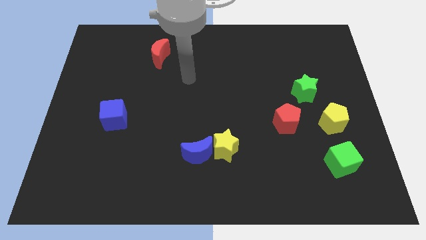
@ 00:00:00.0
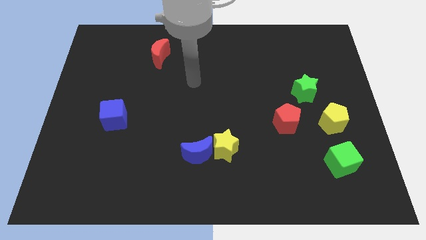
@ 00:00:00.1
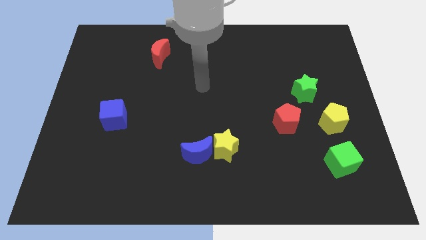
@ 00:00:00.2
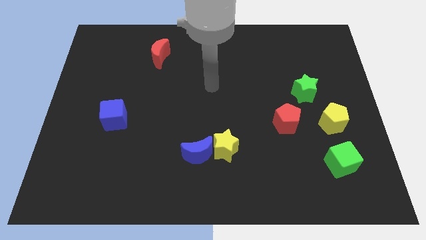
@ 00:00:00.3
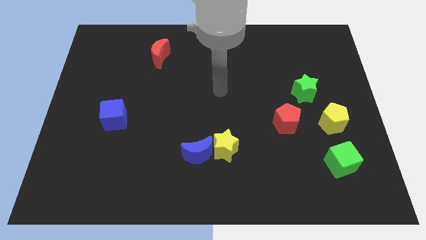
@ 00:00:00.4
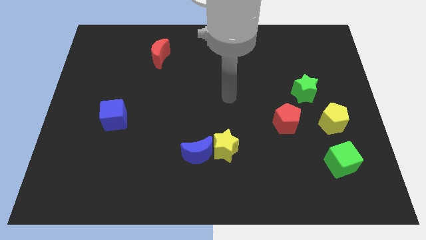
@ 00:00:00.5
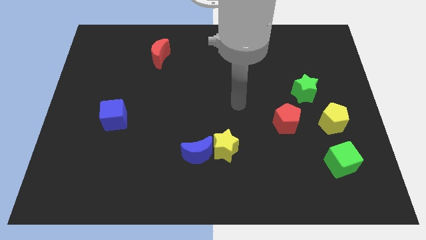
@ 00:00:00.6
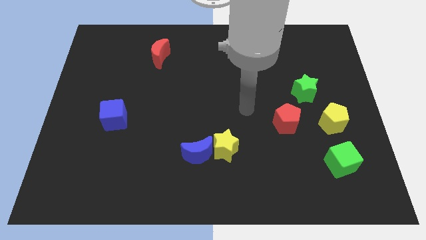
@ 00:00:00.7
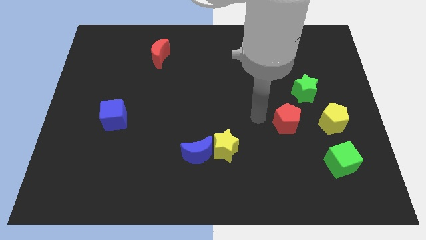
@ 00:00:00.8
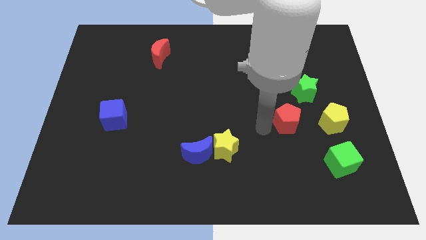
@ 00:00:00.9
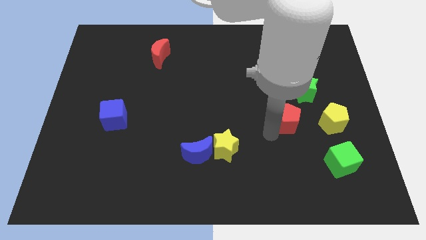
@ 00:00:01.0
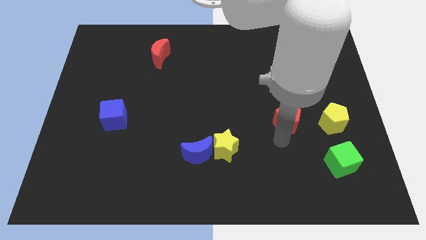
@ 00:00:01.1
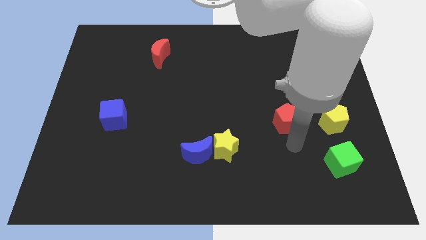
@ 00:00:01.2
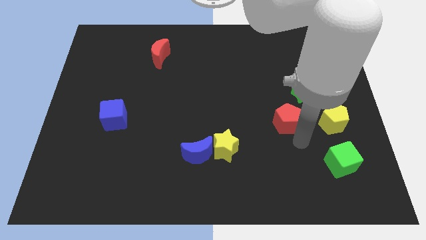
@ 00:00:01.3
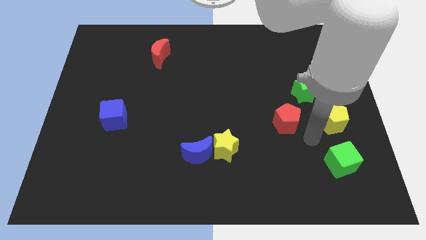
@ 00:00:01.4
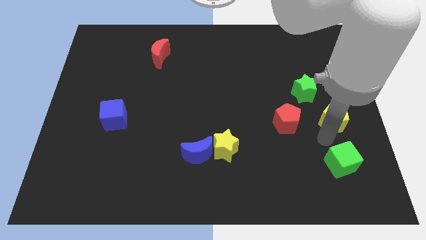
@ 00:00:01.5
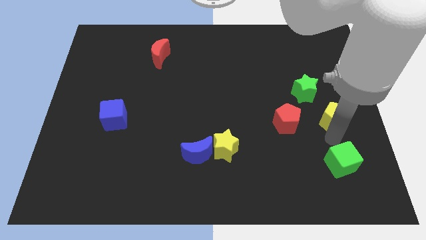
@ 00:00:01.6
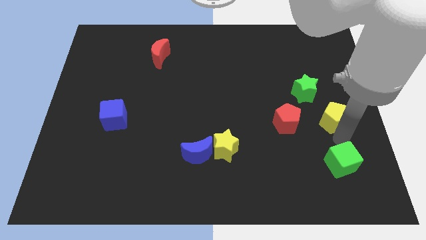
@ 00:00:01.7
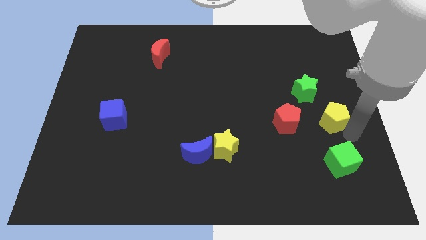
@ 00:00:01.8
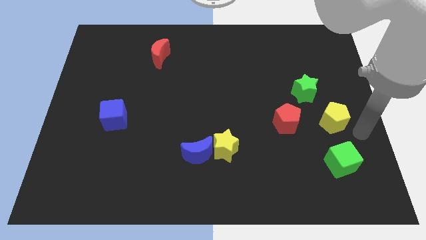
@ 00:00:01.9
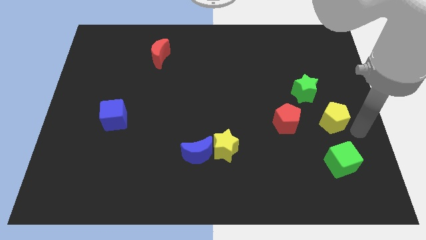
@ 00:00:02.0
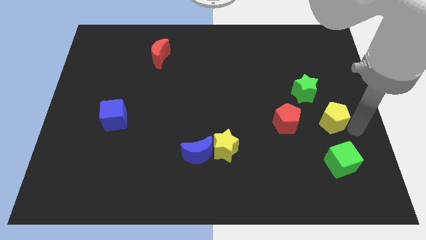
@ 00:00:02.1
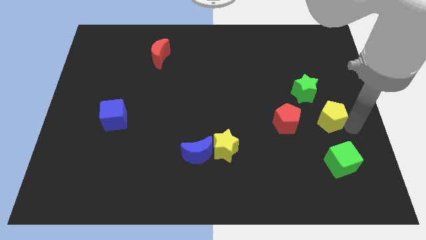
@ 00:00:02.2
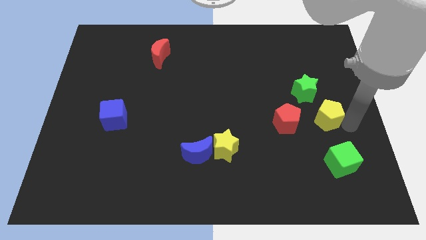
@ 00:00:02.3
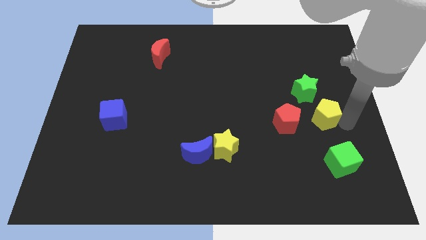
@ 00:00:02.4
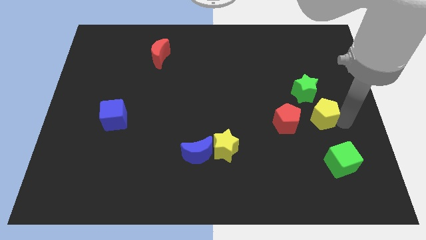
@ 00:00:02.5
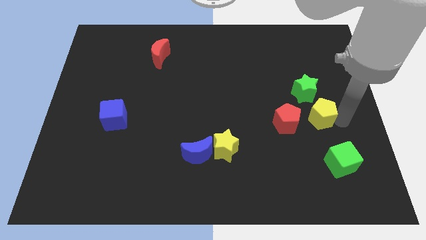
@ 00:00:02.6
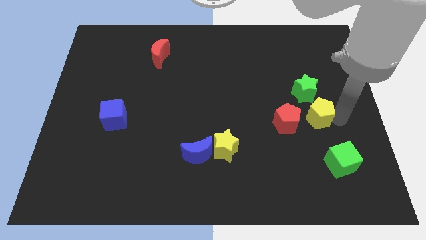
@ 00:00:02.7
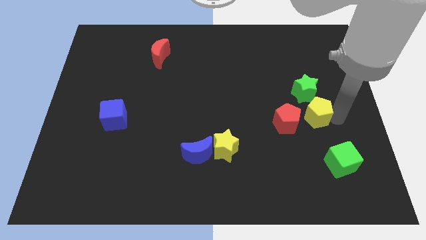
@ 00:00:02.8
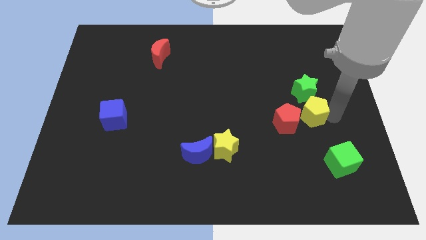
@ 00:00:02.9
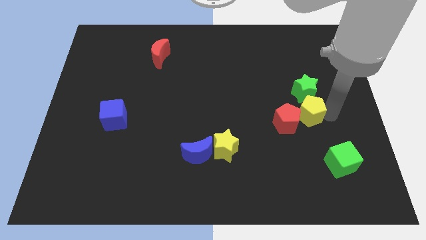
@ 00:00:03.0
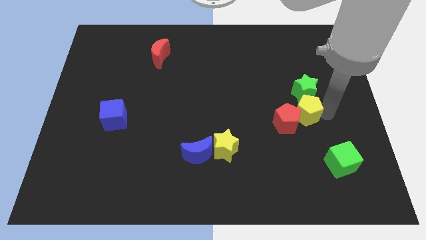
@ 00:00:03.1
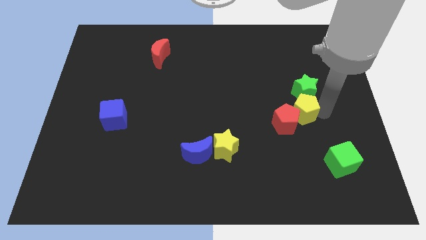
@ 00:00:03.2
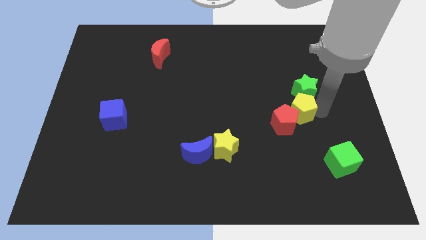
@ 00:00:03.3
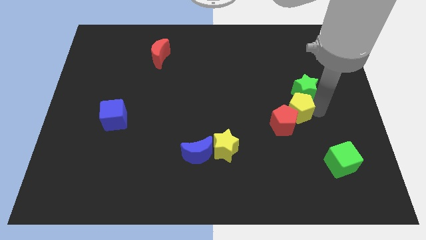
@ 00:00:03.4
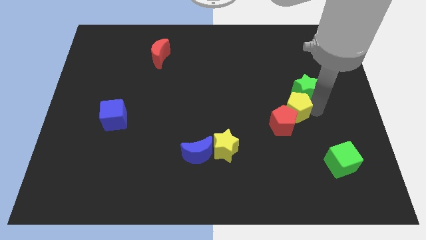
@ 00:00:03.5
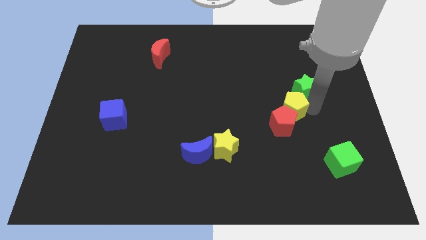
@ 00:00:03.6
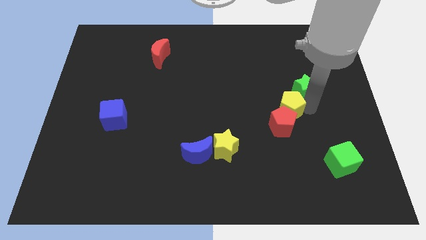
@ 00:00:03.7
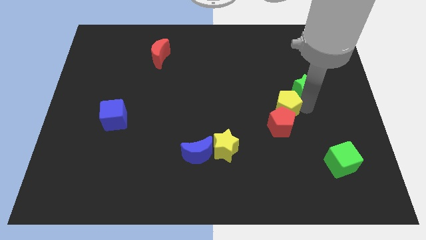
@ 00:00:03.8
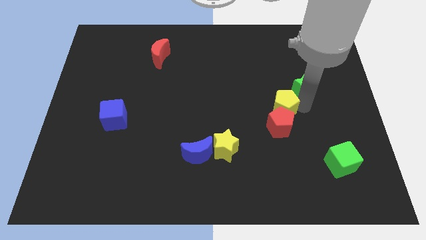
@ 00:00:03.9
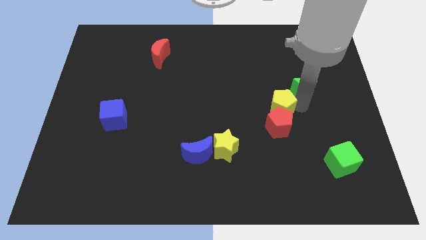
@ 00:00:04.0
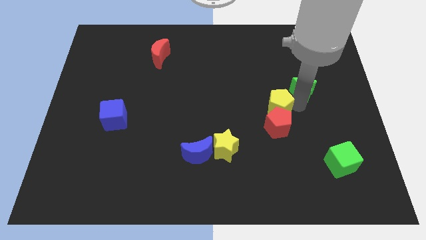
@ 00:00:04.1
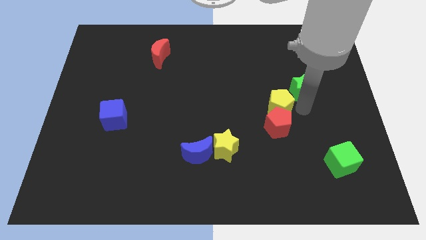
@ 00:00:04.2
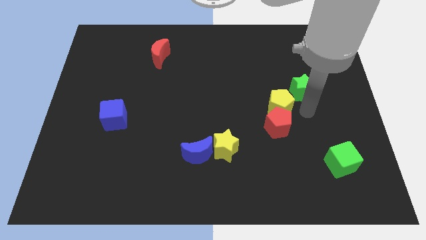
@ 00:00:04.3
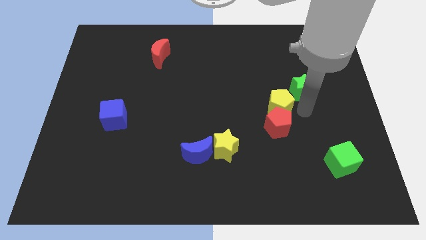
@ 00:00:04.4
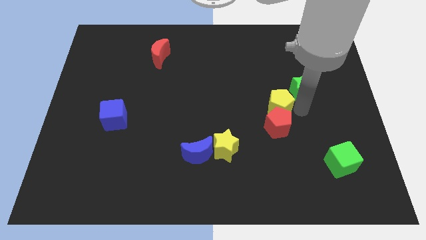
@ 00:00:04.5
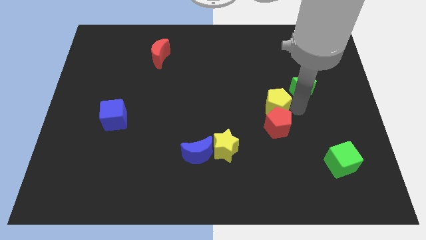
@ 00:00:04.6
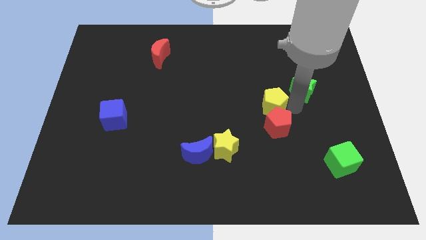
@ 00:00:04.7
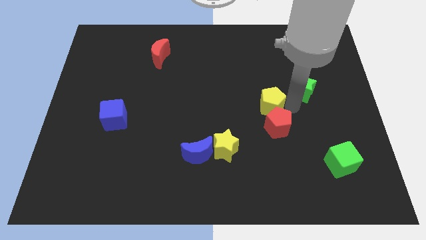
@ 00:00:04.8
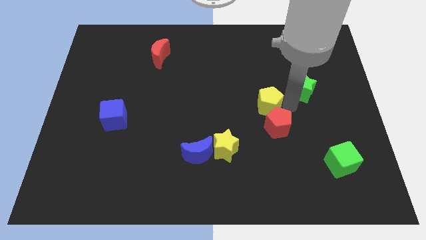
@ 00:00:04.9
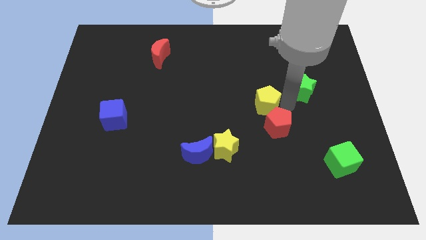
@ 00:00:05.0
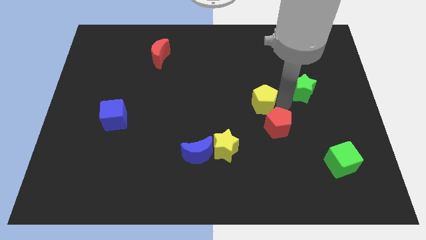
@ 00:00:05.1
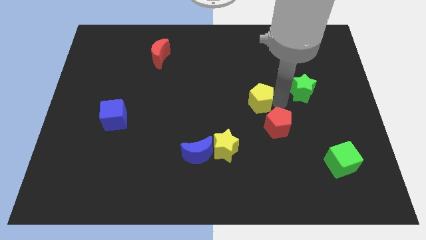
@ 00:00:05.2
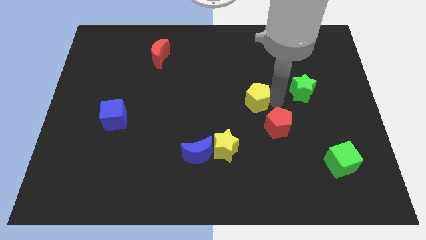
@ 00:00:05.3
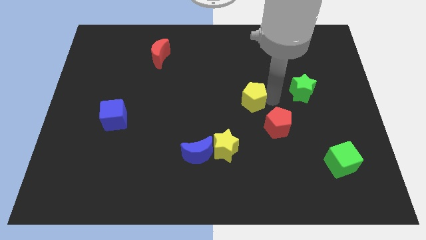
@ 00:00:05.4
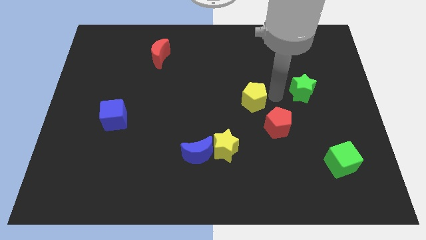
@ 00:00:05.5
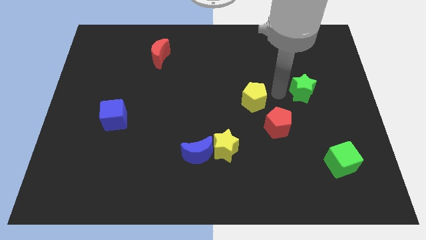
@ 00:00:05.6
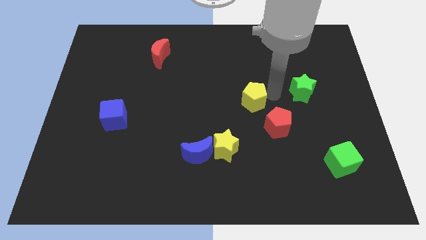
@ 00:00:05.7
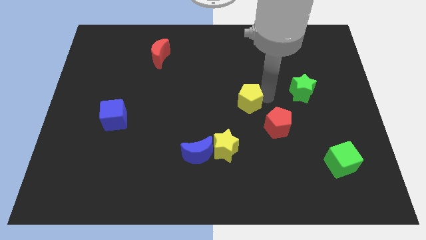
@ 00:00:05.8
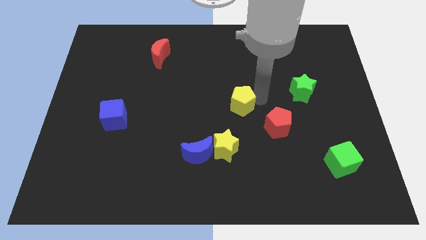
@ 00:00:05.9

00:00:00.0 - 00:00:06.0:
slide the yellow pentagon to the top of the yellow star
